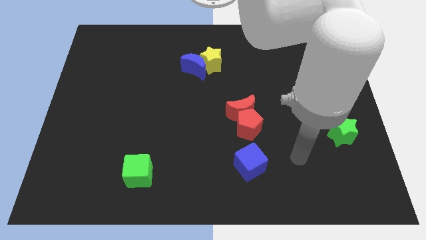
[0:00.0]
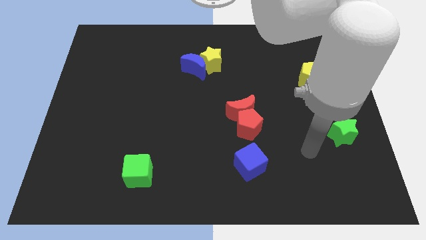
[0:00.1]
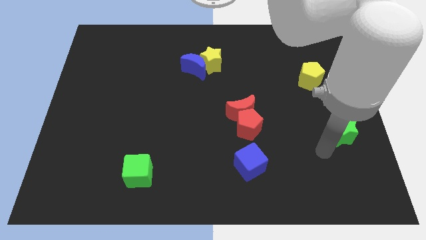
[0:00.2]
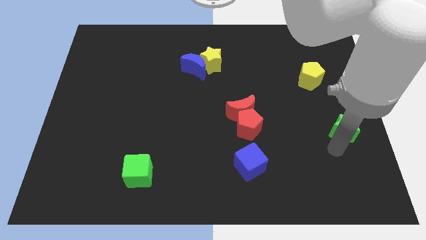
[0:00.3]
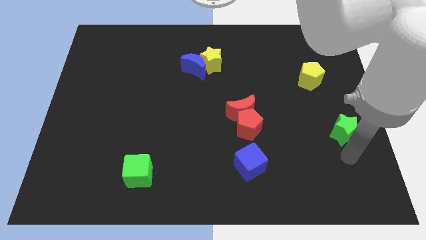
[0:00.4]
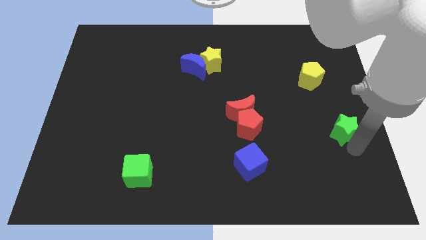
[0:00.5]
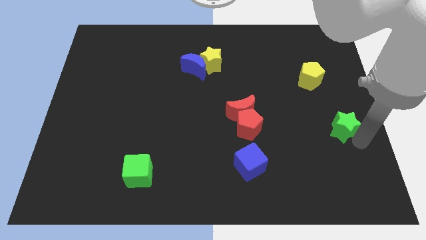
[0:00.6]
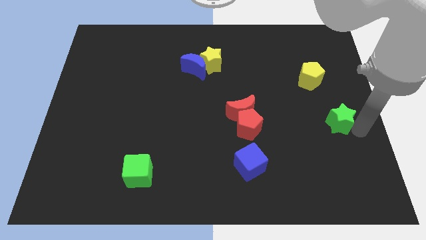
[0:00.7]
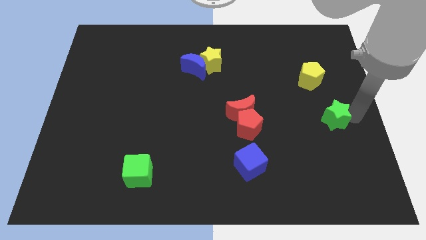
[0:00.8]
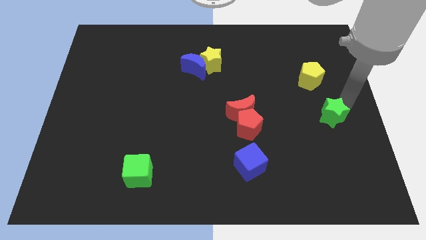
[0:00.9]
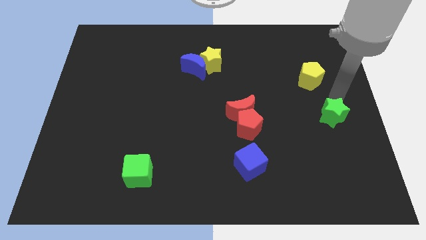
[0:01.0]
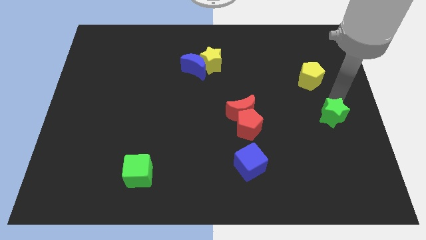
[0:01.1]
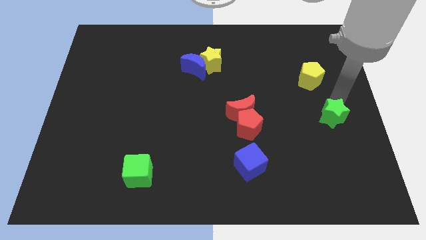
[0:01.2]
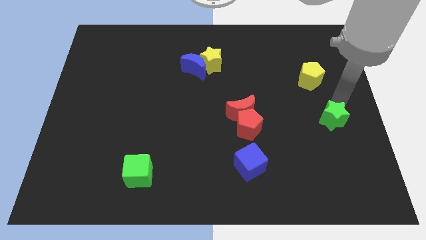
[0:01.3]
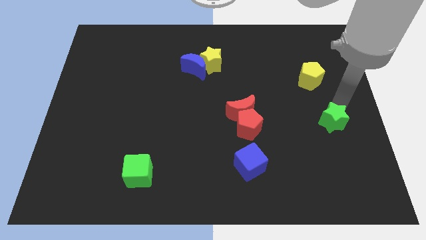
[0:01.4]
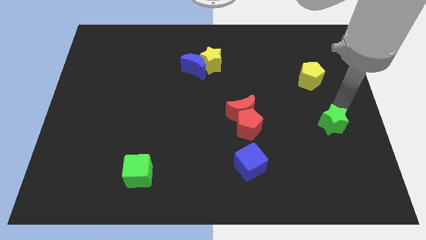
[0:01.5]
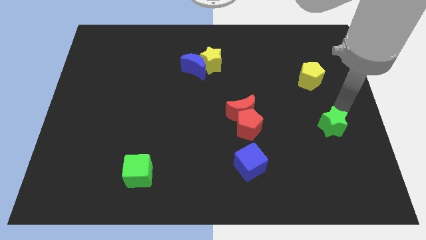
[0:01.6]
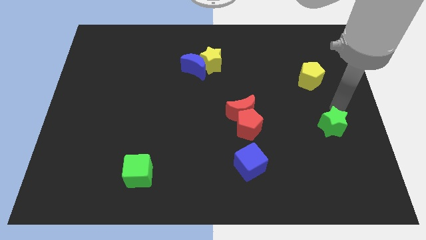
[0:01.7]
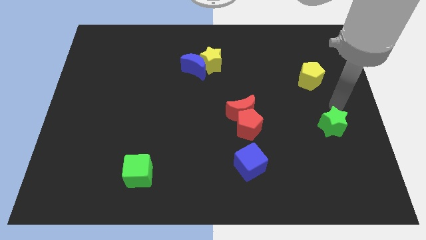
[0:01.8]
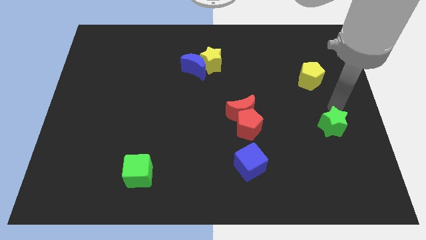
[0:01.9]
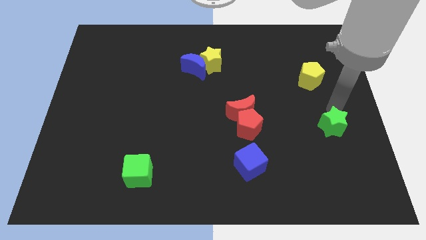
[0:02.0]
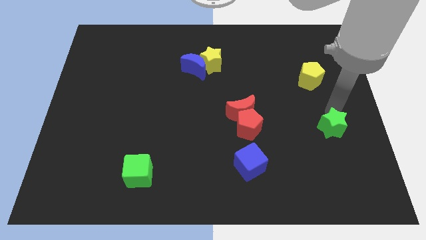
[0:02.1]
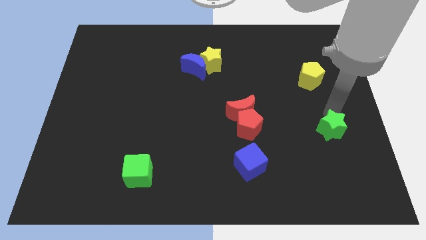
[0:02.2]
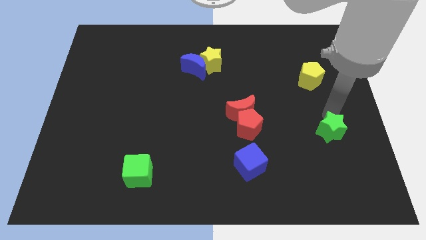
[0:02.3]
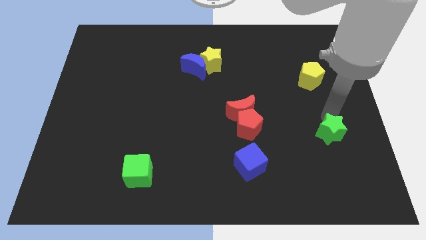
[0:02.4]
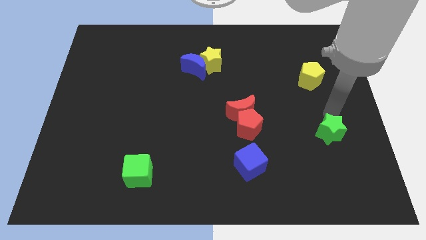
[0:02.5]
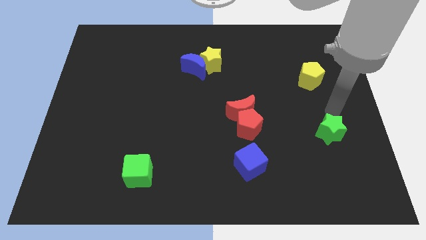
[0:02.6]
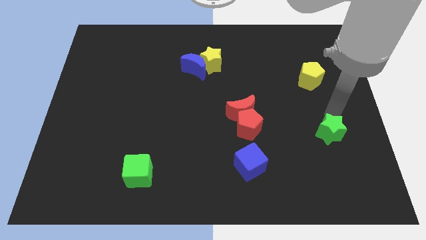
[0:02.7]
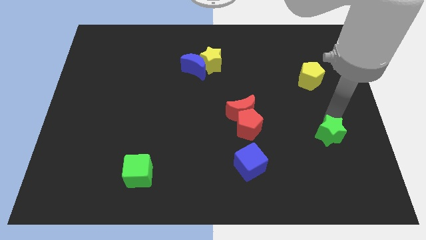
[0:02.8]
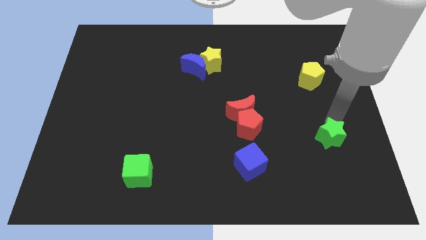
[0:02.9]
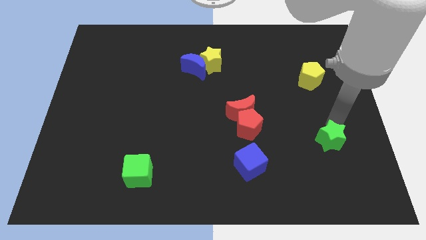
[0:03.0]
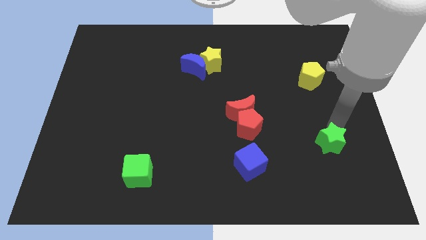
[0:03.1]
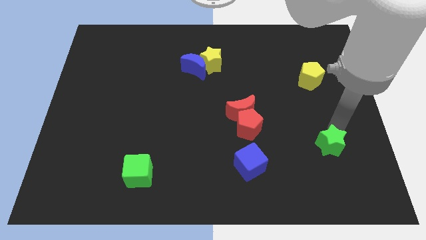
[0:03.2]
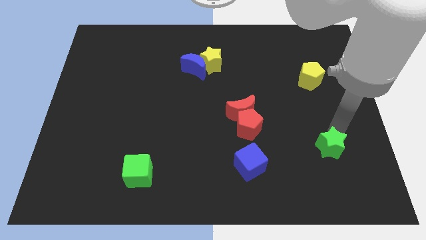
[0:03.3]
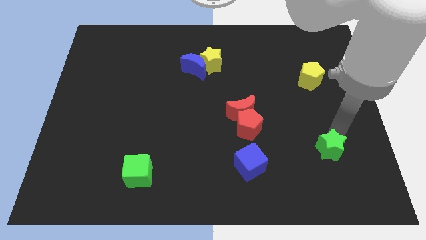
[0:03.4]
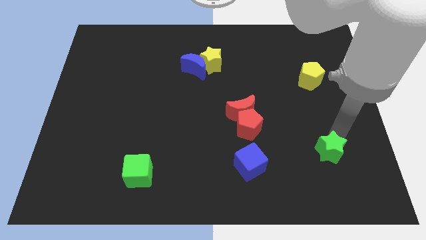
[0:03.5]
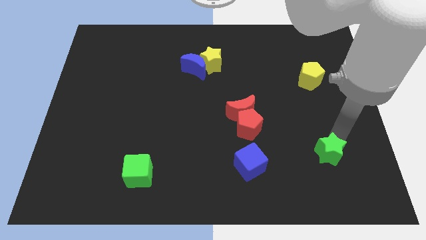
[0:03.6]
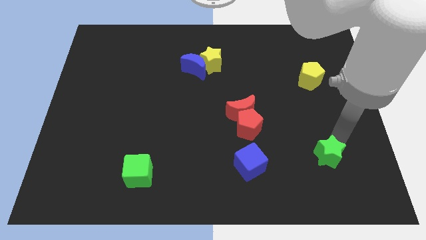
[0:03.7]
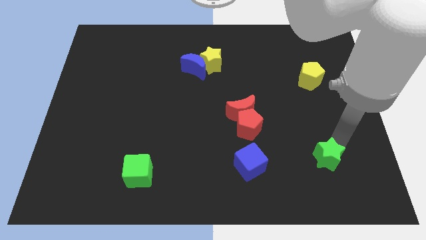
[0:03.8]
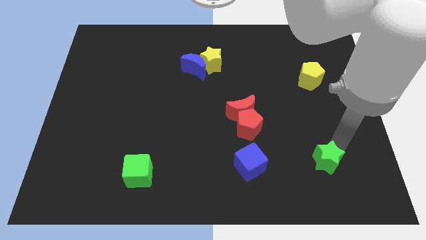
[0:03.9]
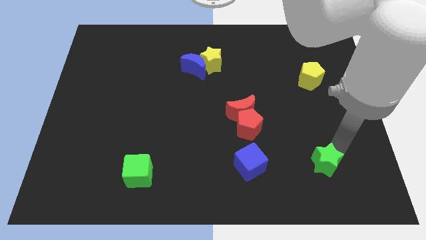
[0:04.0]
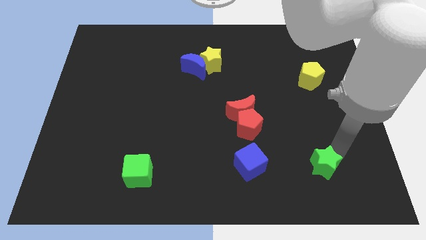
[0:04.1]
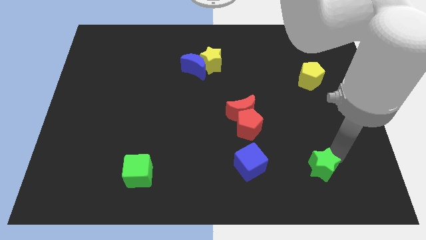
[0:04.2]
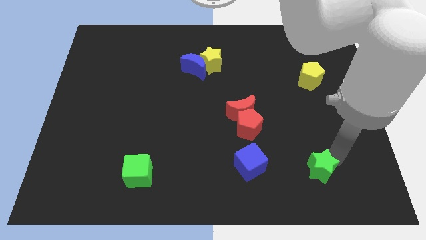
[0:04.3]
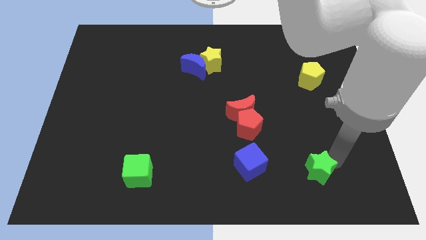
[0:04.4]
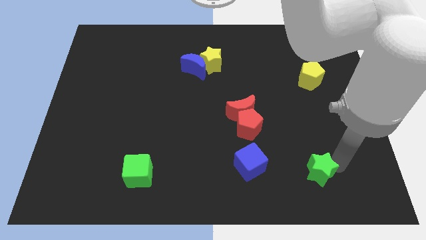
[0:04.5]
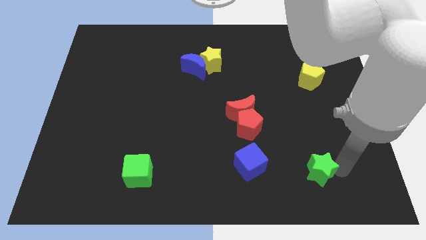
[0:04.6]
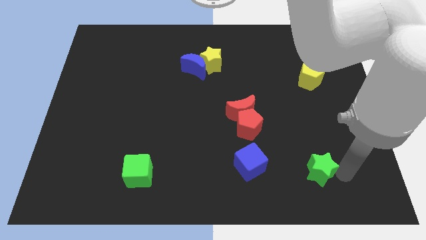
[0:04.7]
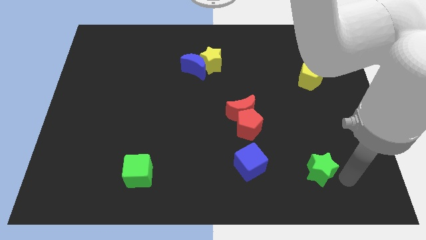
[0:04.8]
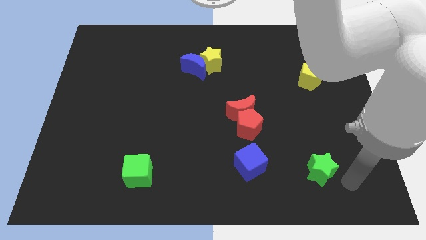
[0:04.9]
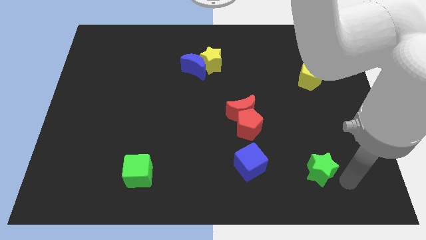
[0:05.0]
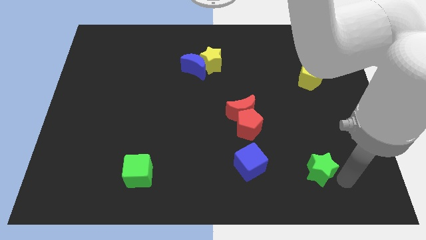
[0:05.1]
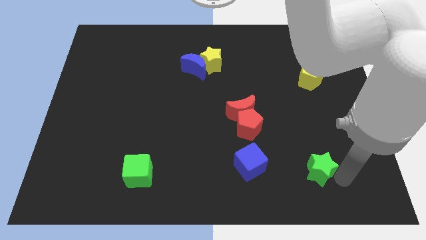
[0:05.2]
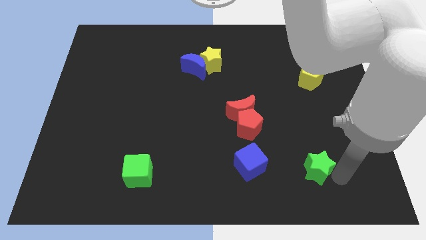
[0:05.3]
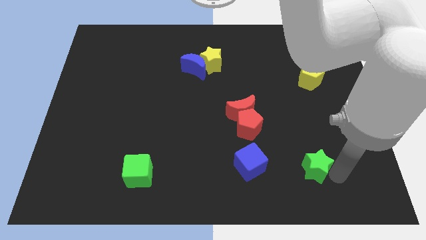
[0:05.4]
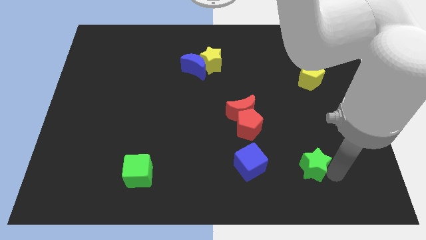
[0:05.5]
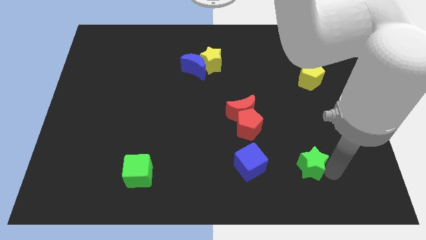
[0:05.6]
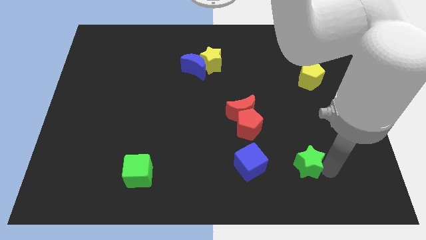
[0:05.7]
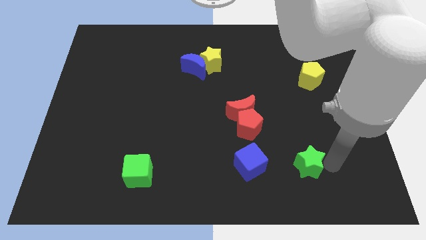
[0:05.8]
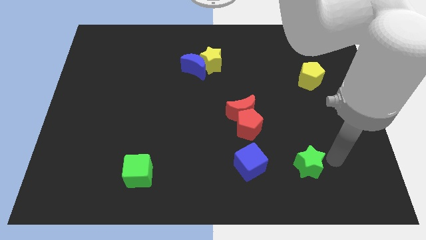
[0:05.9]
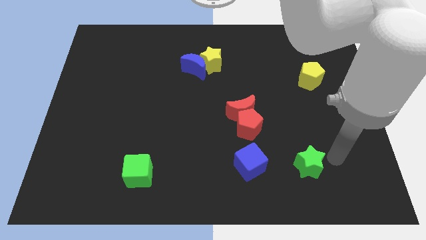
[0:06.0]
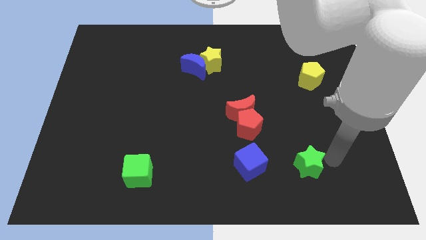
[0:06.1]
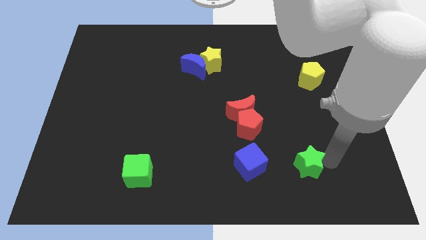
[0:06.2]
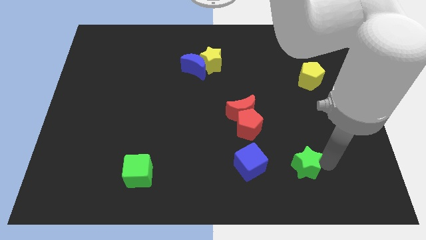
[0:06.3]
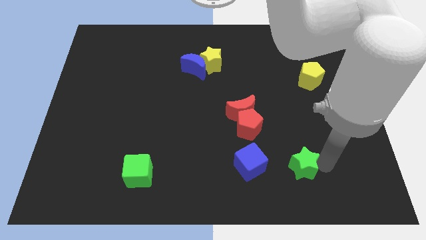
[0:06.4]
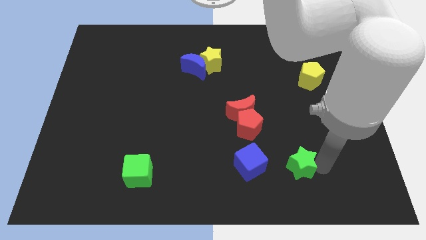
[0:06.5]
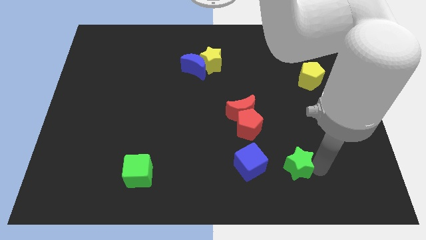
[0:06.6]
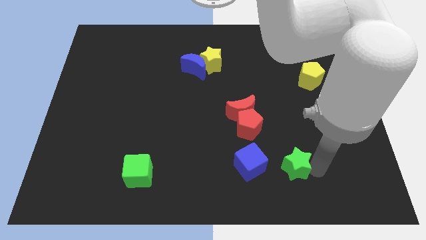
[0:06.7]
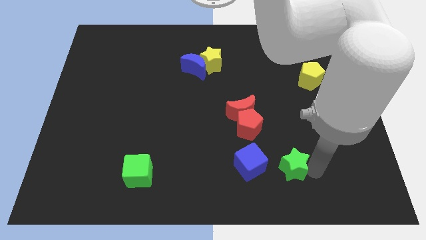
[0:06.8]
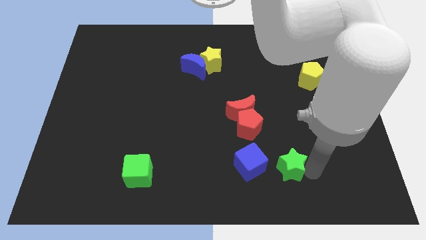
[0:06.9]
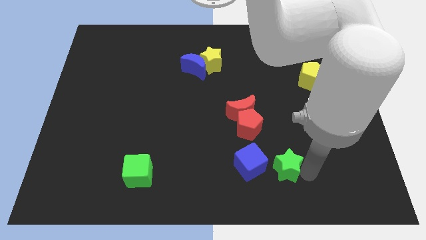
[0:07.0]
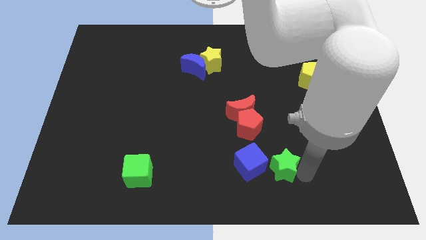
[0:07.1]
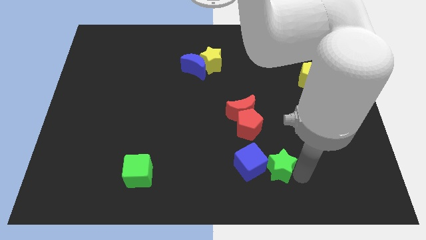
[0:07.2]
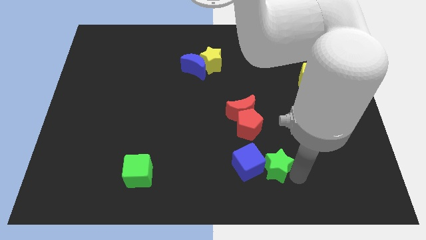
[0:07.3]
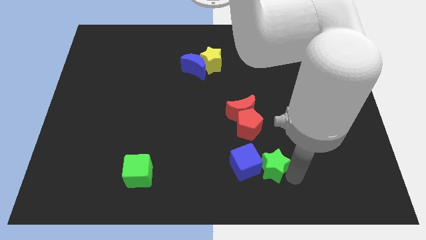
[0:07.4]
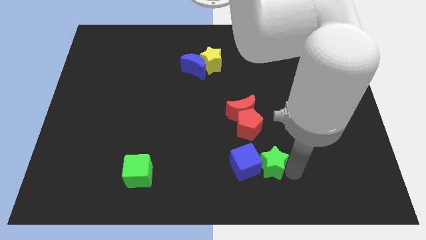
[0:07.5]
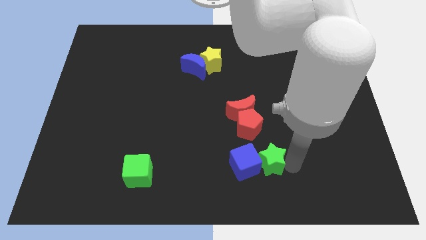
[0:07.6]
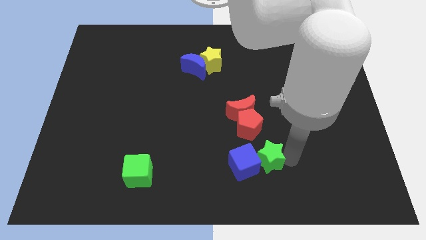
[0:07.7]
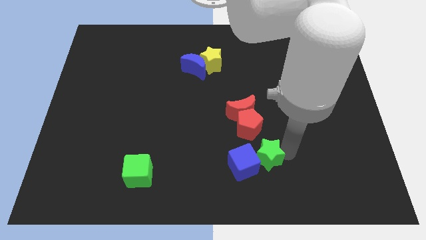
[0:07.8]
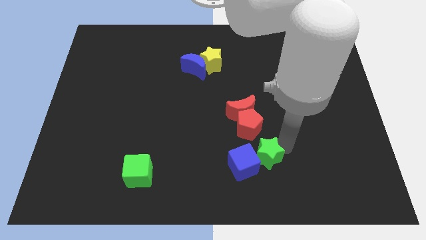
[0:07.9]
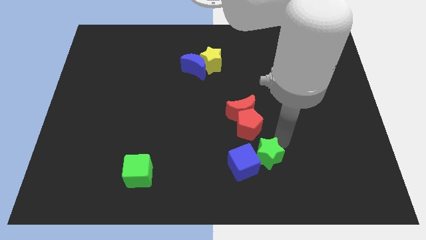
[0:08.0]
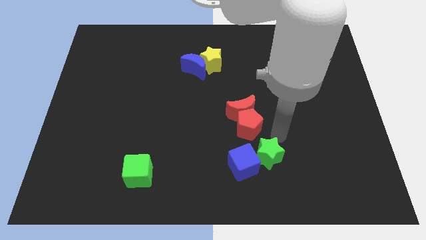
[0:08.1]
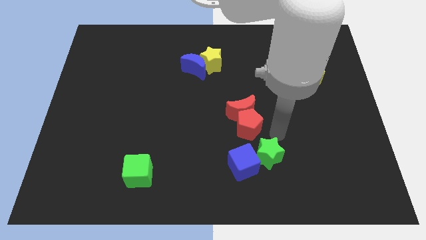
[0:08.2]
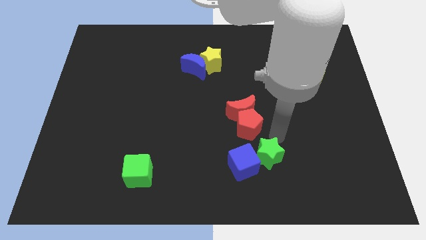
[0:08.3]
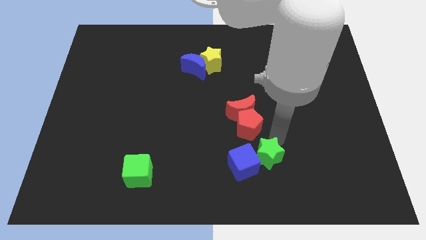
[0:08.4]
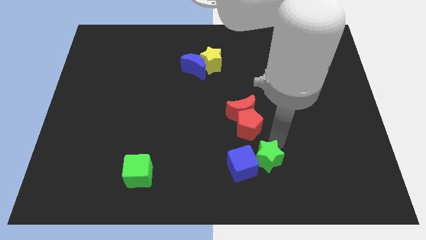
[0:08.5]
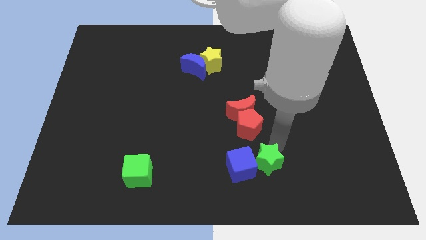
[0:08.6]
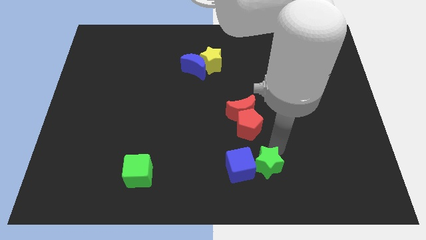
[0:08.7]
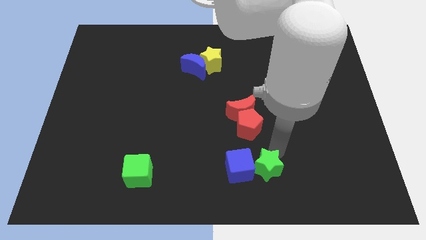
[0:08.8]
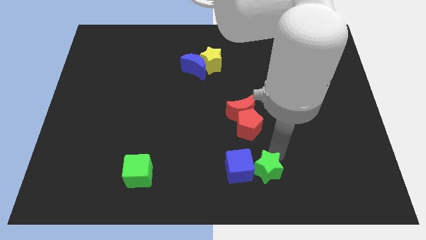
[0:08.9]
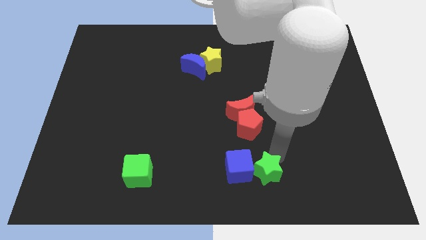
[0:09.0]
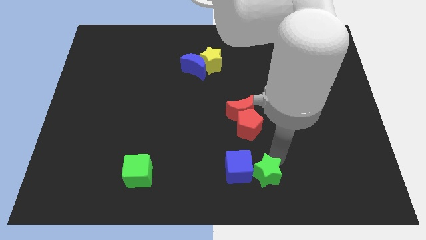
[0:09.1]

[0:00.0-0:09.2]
put the green star to the bottom
